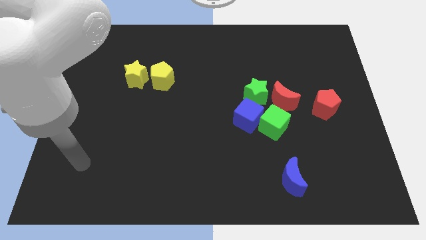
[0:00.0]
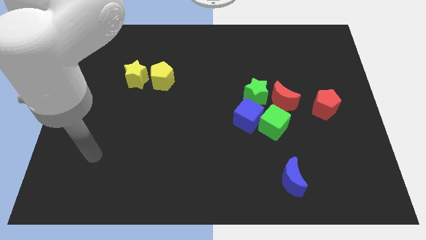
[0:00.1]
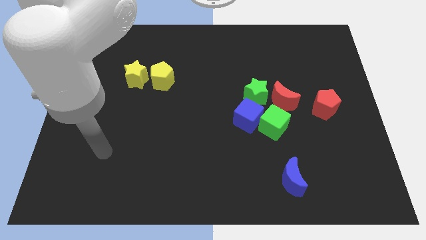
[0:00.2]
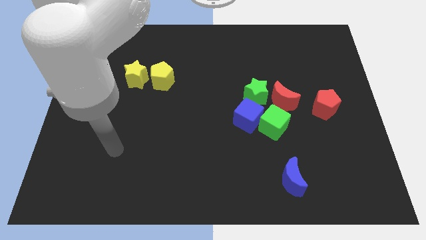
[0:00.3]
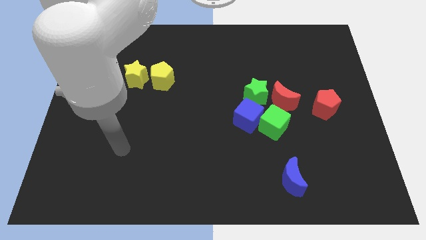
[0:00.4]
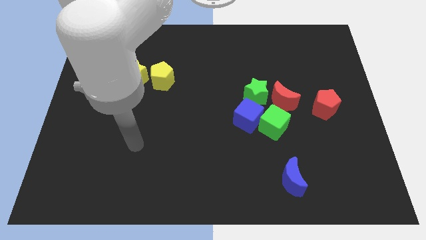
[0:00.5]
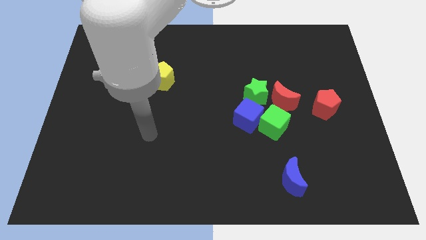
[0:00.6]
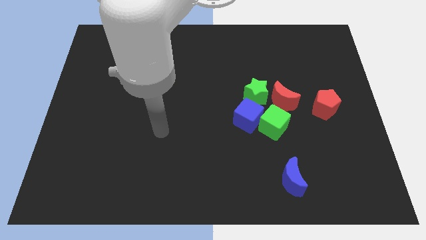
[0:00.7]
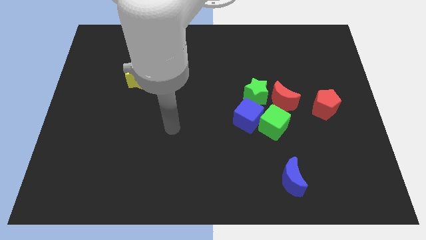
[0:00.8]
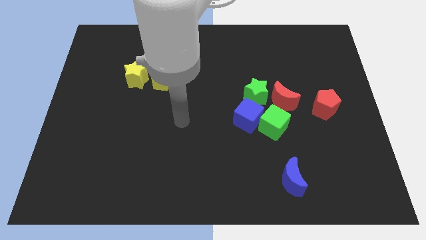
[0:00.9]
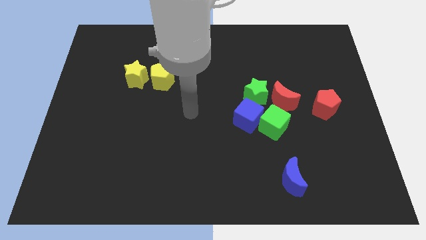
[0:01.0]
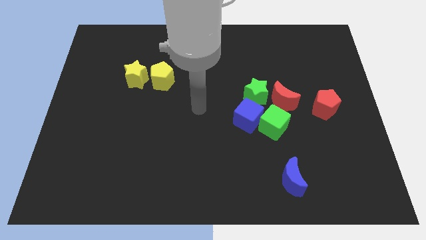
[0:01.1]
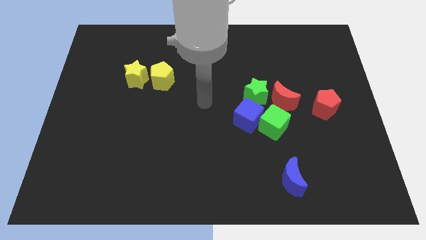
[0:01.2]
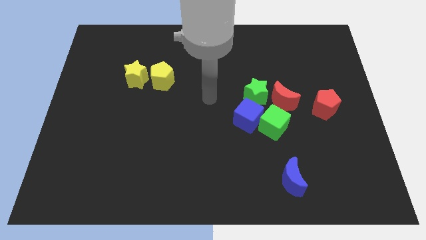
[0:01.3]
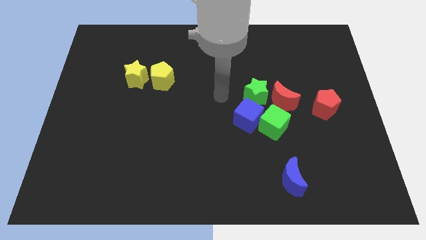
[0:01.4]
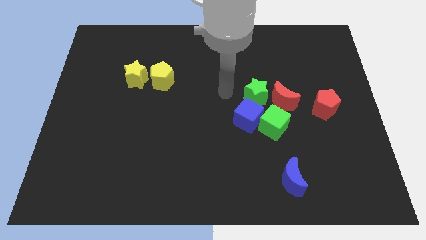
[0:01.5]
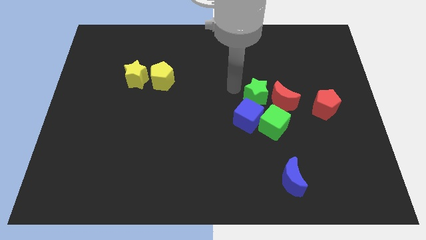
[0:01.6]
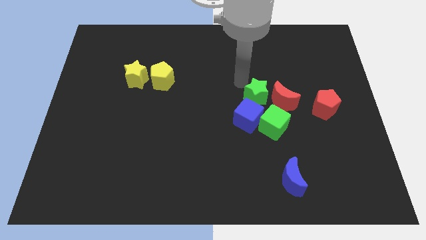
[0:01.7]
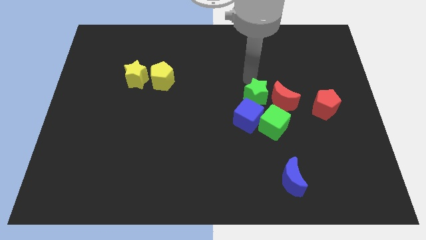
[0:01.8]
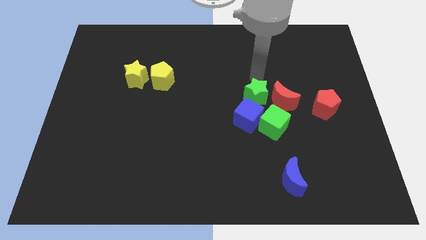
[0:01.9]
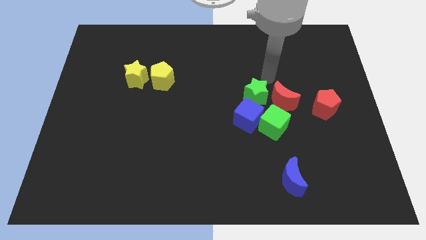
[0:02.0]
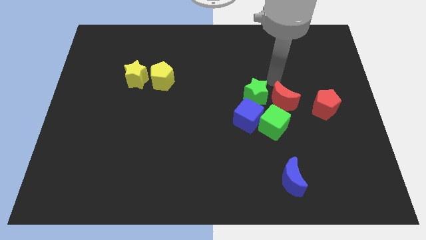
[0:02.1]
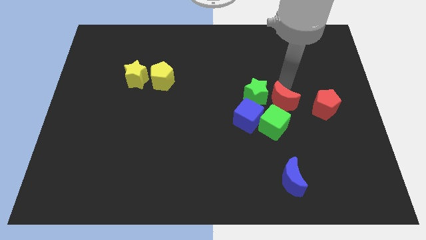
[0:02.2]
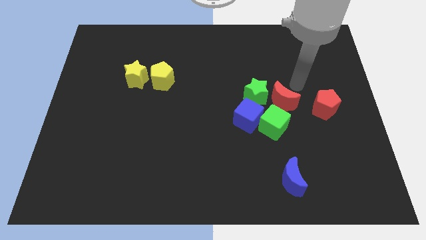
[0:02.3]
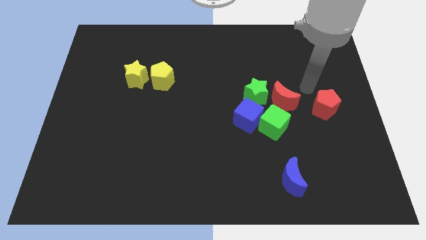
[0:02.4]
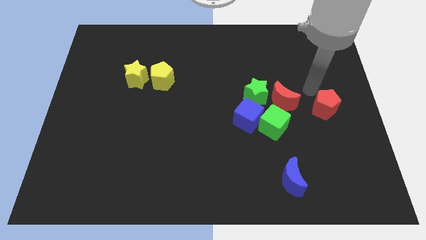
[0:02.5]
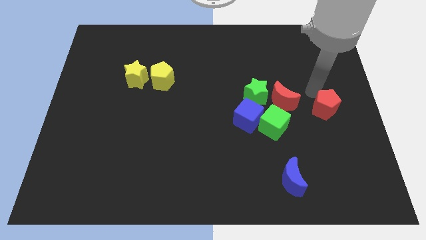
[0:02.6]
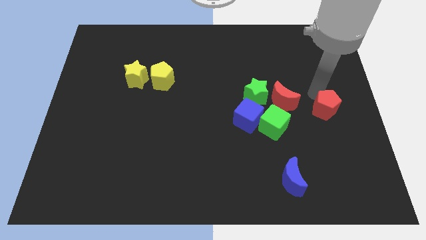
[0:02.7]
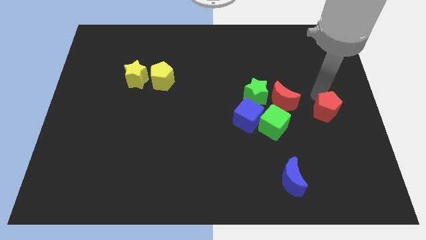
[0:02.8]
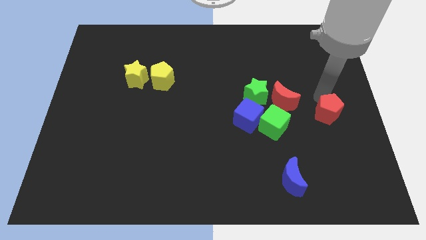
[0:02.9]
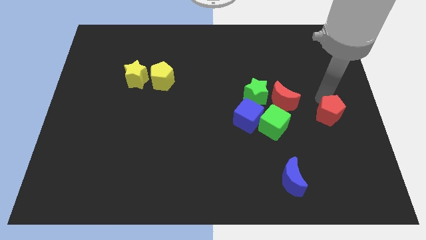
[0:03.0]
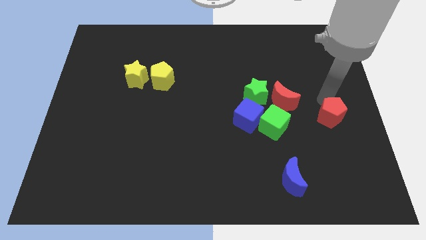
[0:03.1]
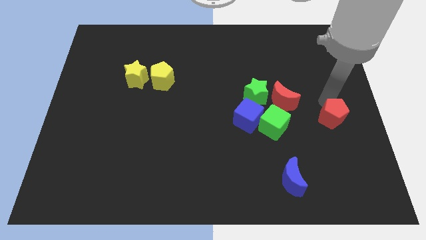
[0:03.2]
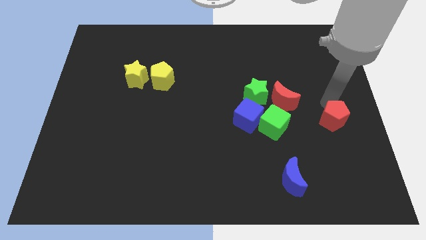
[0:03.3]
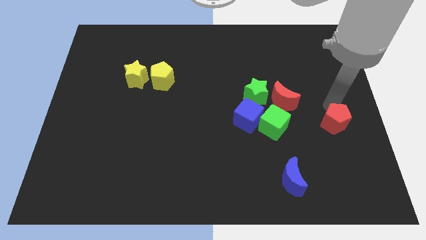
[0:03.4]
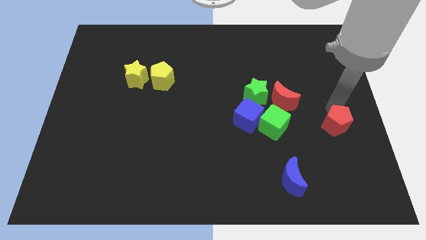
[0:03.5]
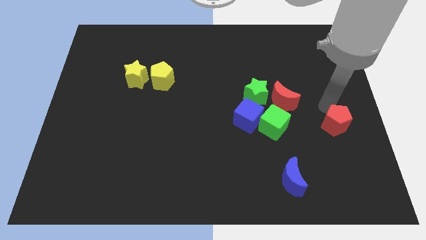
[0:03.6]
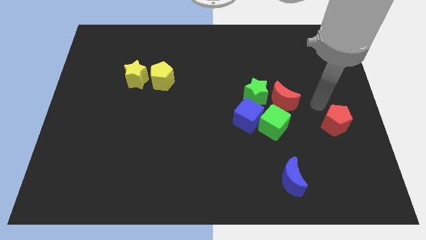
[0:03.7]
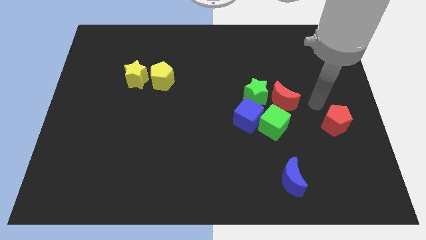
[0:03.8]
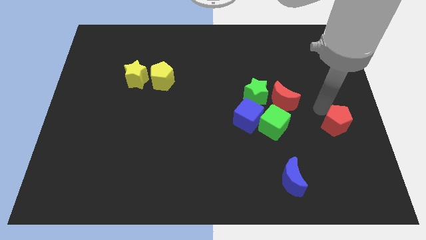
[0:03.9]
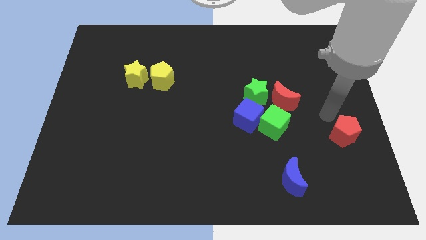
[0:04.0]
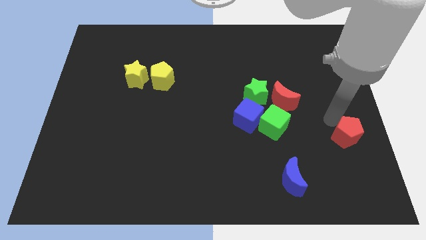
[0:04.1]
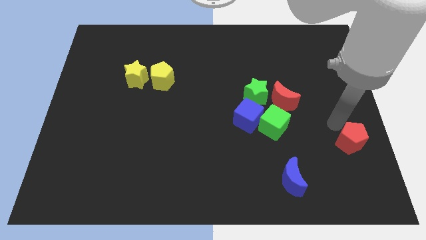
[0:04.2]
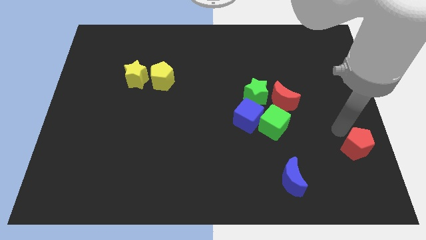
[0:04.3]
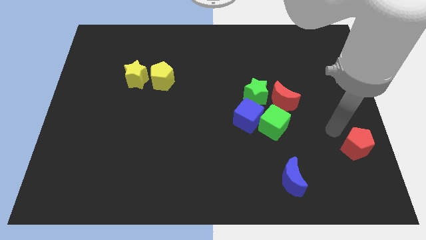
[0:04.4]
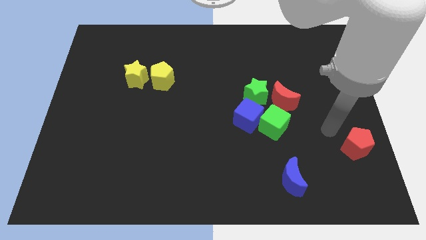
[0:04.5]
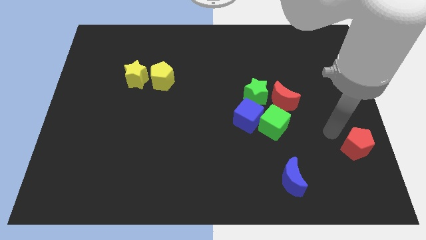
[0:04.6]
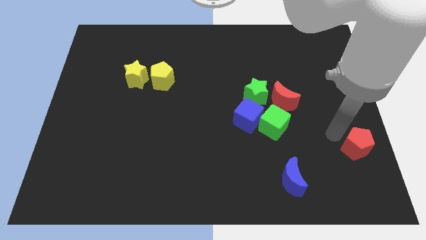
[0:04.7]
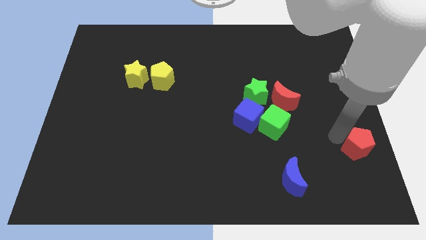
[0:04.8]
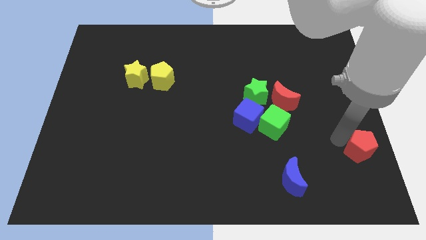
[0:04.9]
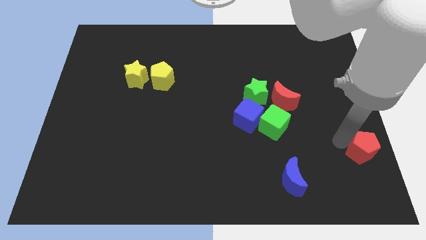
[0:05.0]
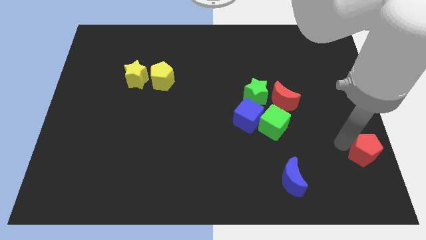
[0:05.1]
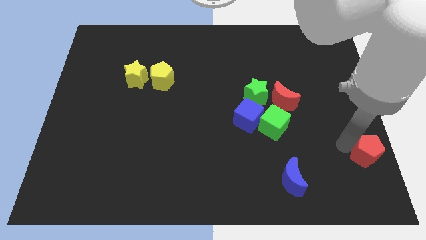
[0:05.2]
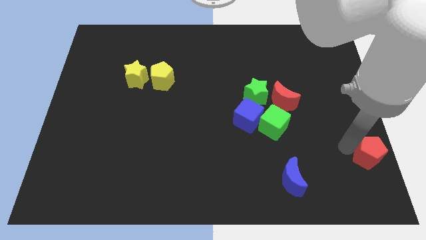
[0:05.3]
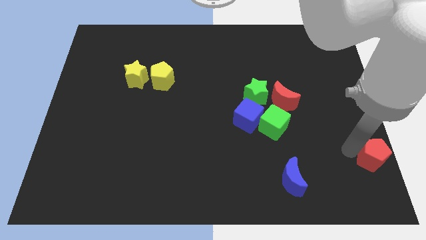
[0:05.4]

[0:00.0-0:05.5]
put the red pentagon to the lower right corner
